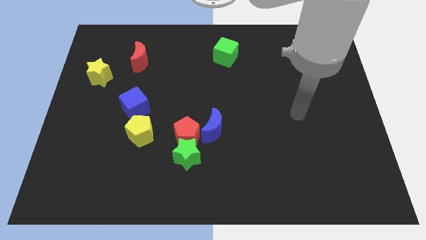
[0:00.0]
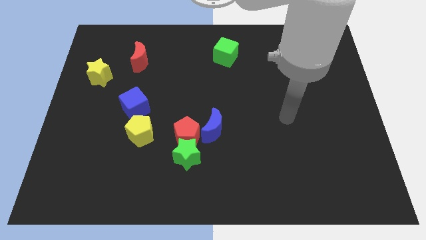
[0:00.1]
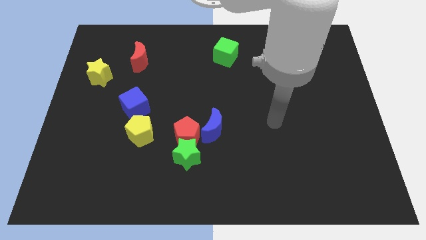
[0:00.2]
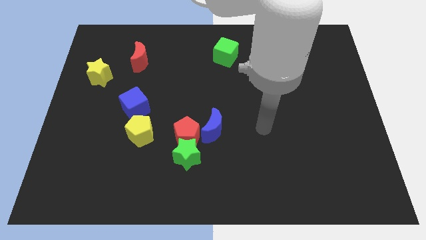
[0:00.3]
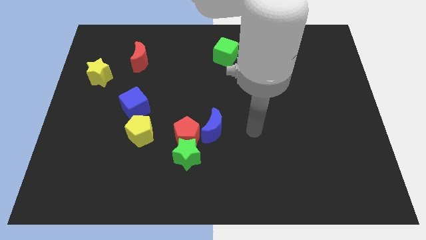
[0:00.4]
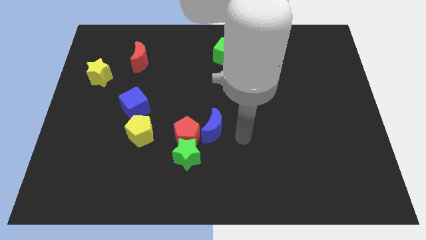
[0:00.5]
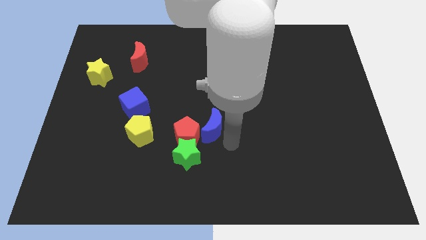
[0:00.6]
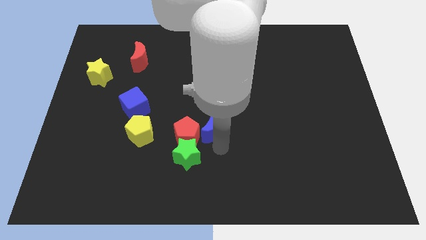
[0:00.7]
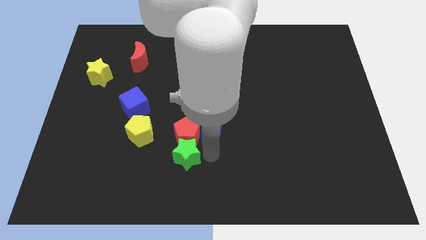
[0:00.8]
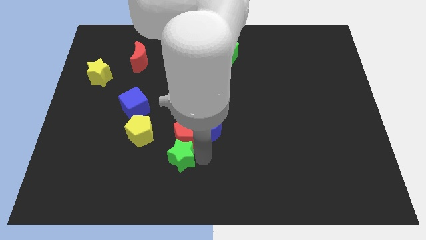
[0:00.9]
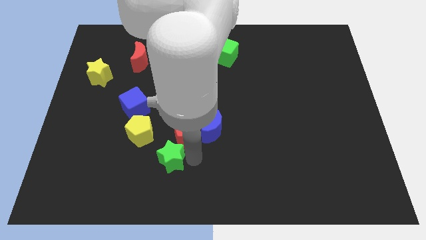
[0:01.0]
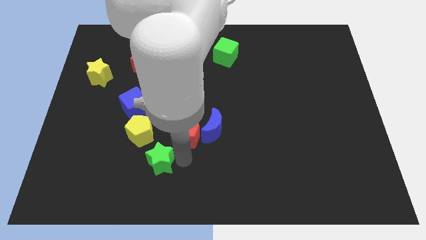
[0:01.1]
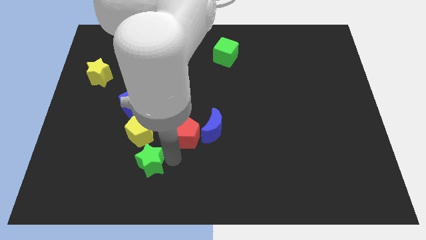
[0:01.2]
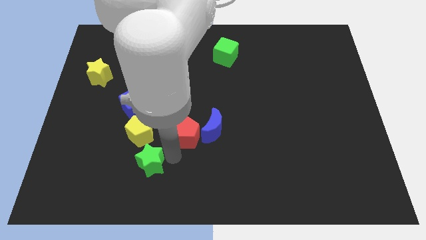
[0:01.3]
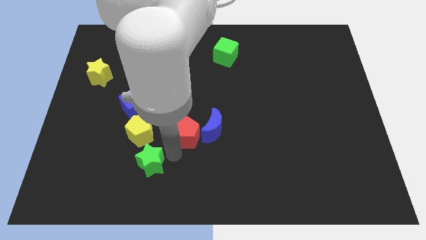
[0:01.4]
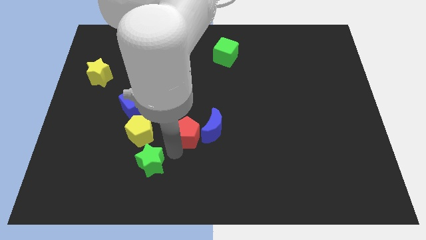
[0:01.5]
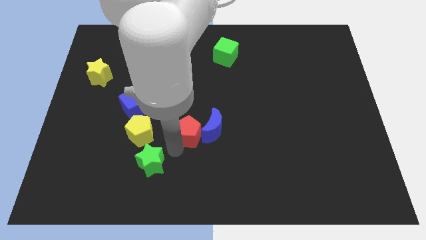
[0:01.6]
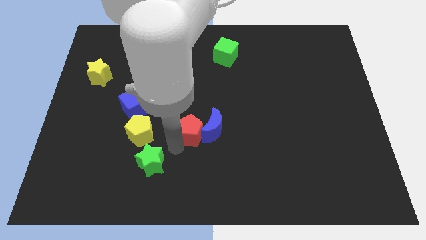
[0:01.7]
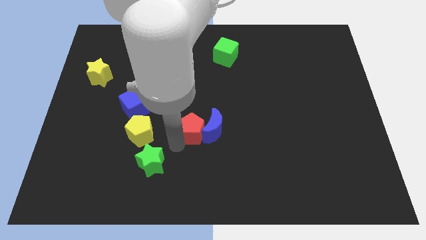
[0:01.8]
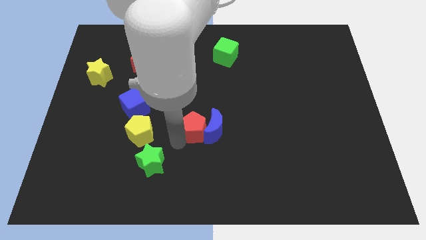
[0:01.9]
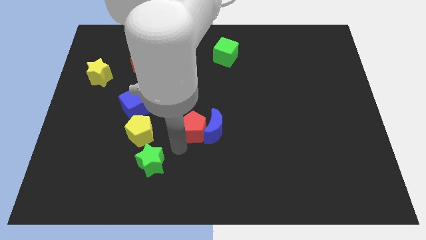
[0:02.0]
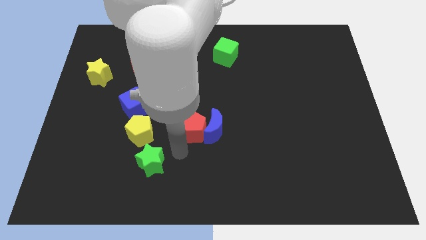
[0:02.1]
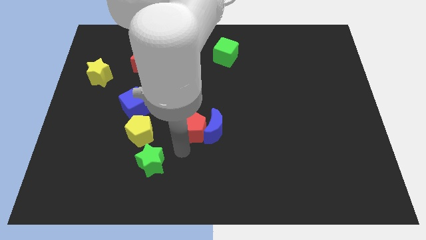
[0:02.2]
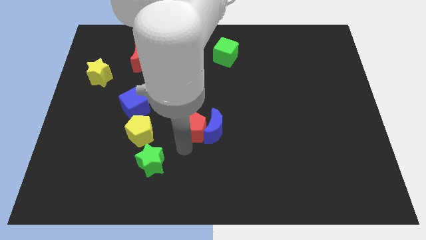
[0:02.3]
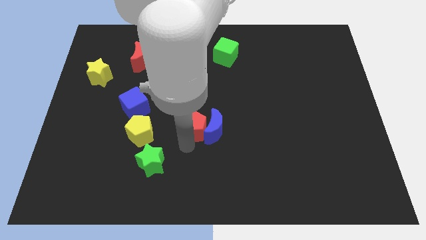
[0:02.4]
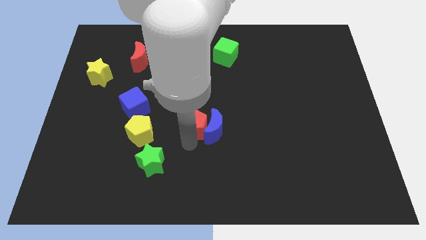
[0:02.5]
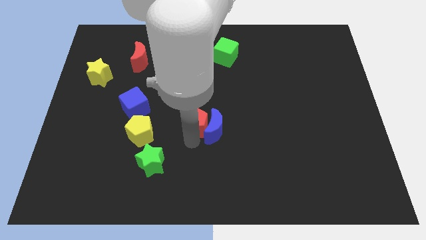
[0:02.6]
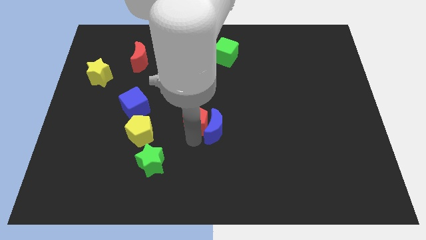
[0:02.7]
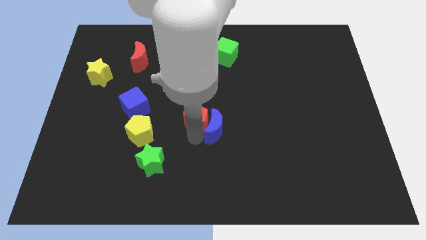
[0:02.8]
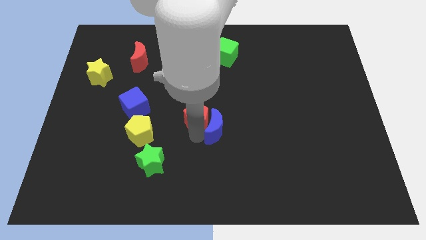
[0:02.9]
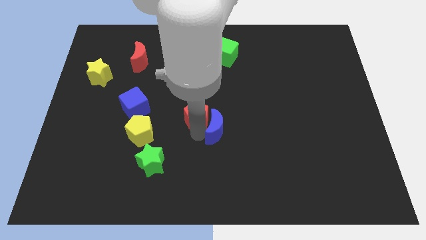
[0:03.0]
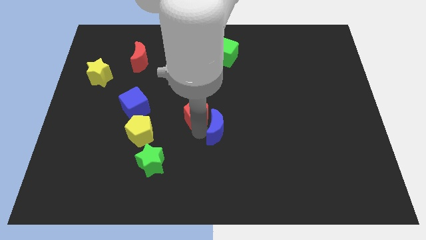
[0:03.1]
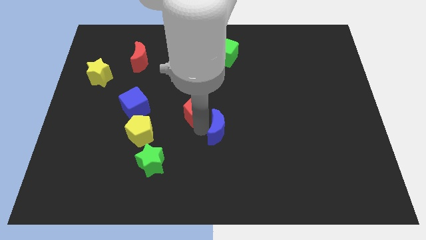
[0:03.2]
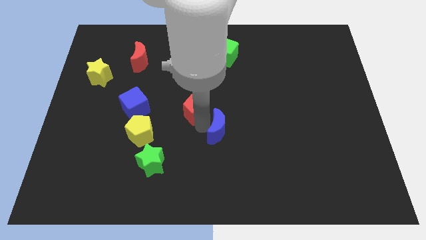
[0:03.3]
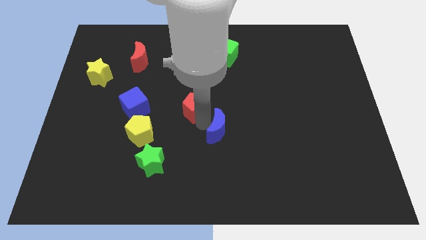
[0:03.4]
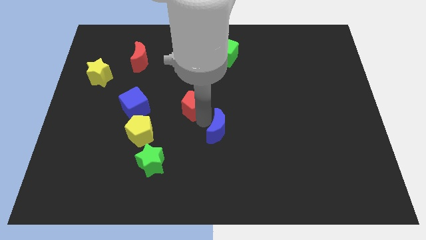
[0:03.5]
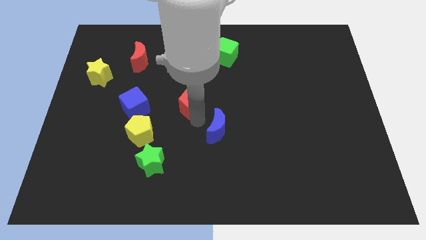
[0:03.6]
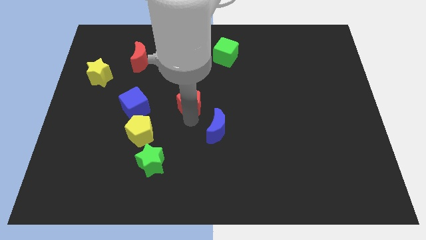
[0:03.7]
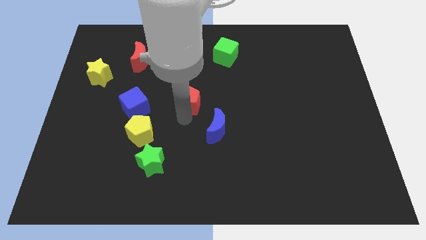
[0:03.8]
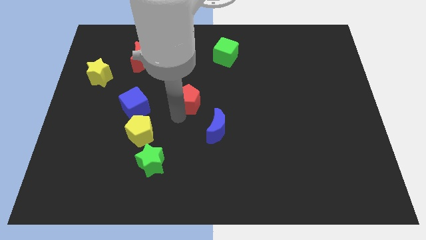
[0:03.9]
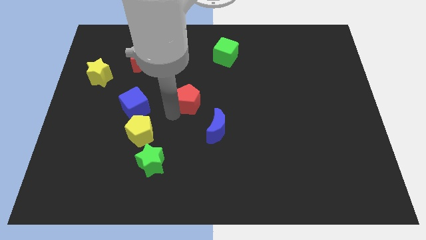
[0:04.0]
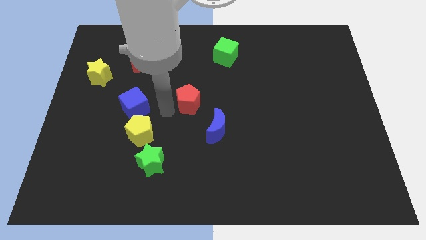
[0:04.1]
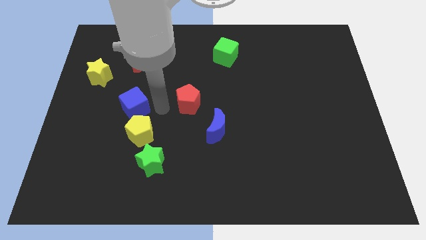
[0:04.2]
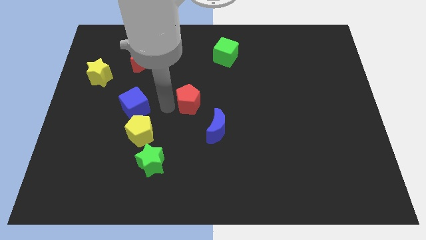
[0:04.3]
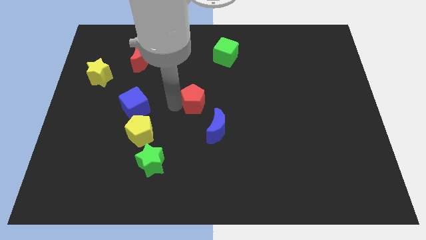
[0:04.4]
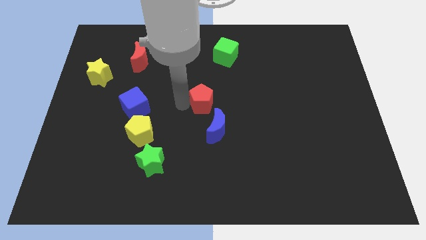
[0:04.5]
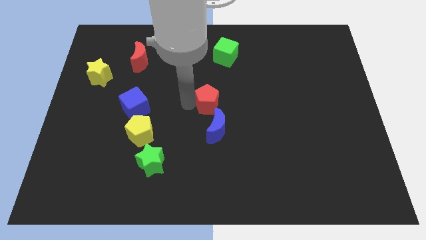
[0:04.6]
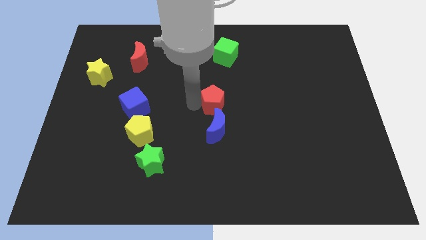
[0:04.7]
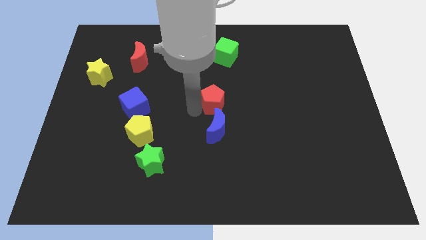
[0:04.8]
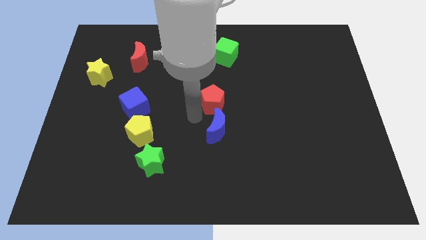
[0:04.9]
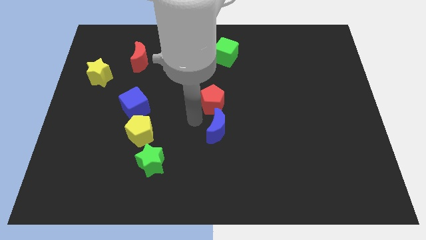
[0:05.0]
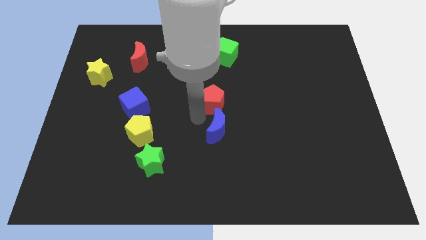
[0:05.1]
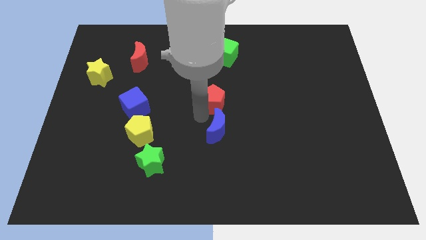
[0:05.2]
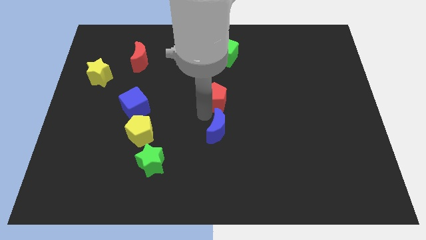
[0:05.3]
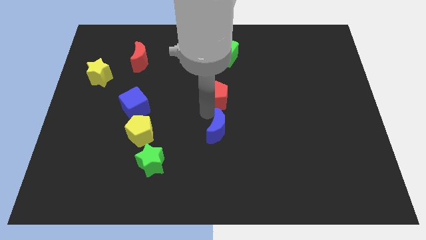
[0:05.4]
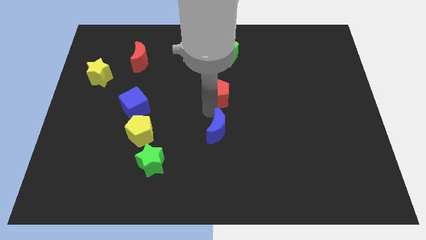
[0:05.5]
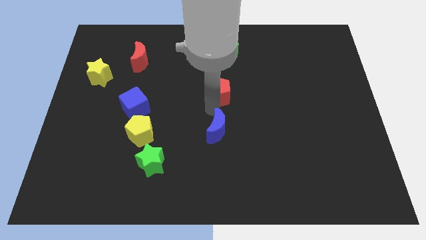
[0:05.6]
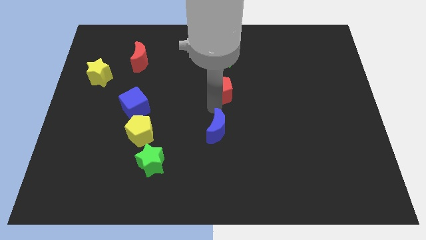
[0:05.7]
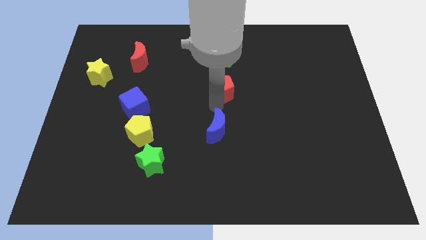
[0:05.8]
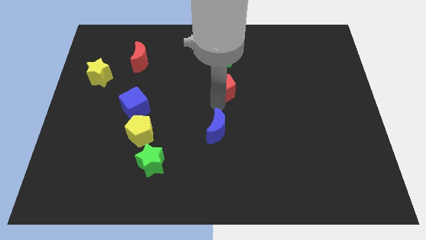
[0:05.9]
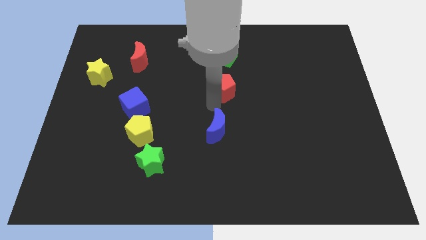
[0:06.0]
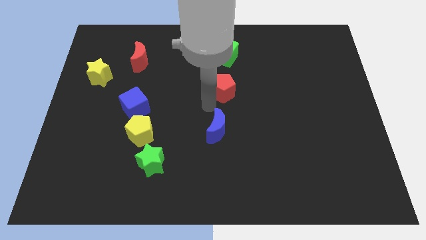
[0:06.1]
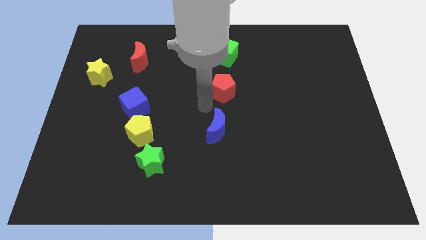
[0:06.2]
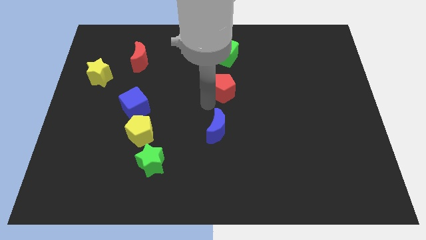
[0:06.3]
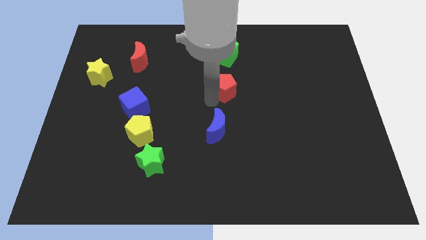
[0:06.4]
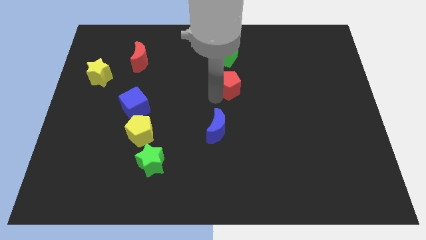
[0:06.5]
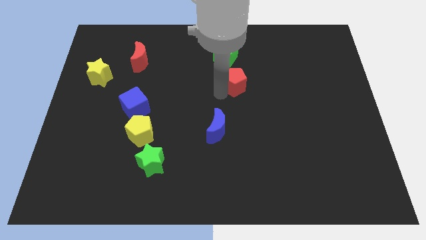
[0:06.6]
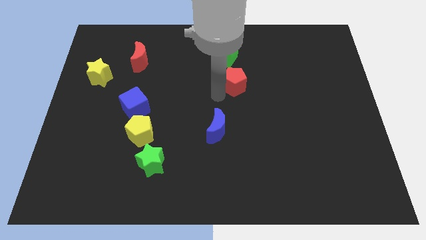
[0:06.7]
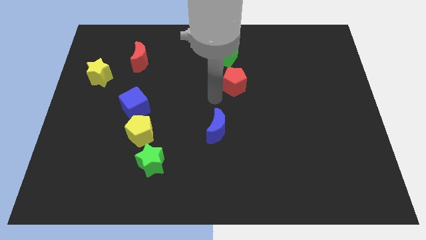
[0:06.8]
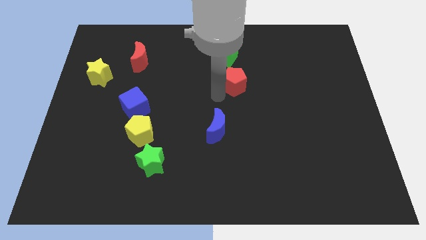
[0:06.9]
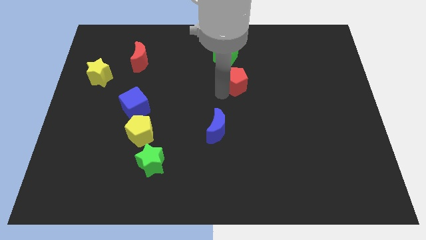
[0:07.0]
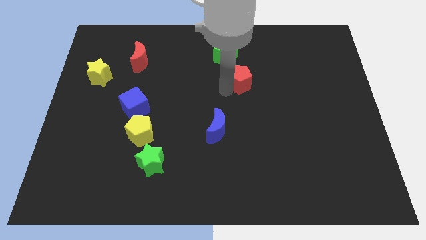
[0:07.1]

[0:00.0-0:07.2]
move the red pentagon up and then to the right

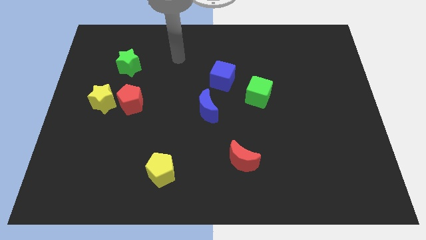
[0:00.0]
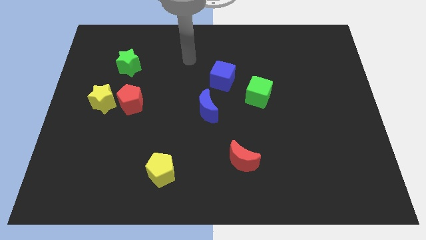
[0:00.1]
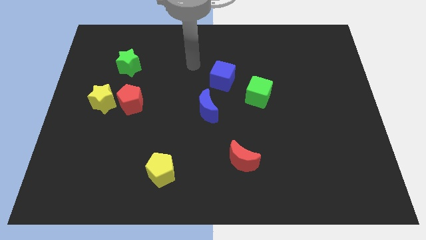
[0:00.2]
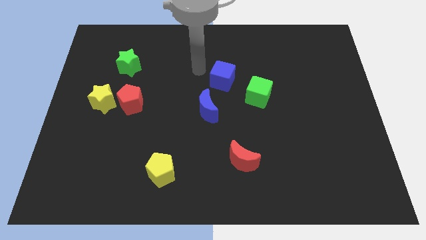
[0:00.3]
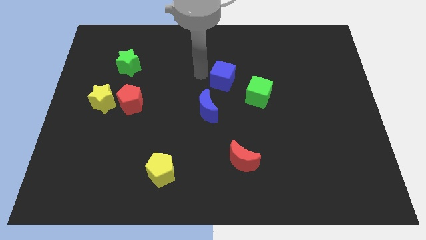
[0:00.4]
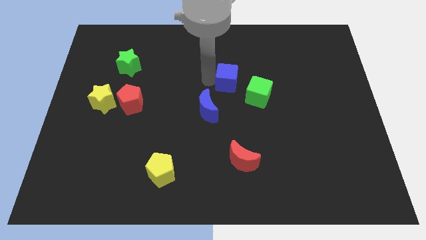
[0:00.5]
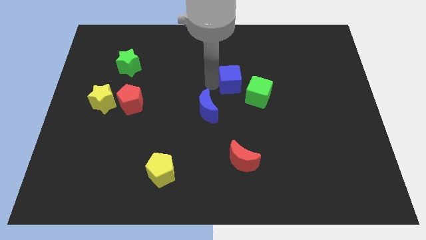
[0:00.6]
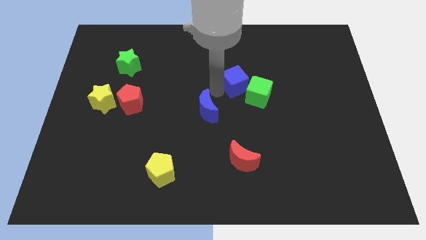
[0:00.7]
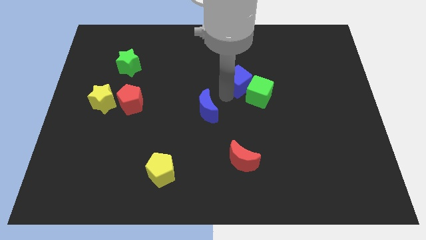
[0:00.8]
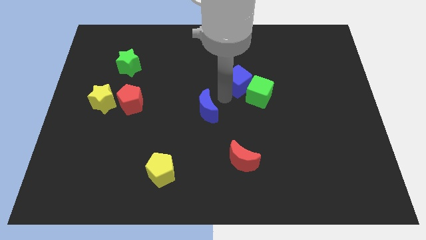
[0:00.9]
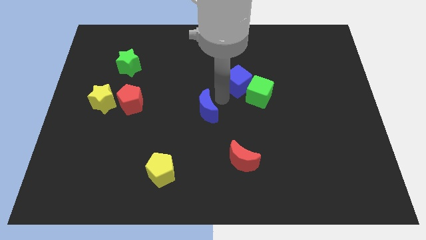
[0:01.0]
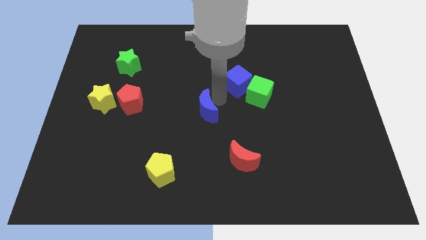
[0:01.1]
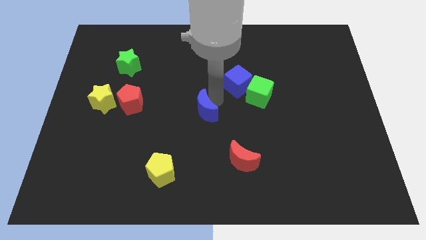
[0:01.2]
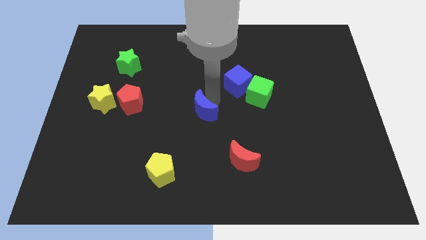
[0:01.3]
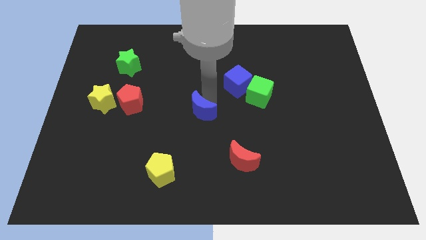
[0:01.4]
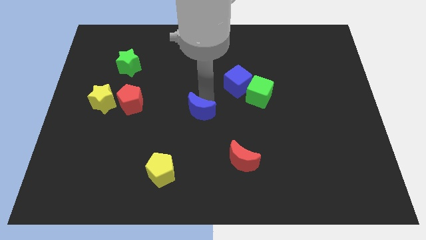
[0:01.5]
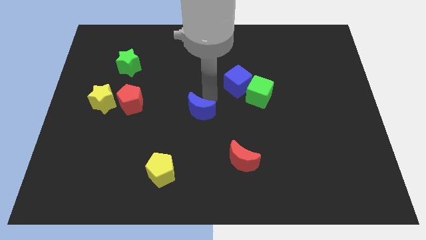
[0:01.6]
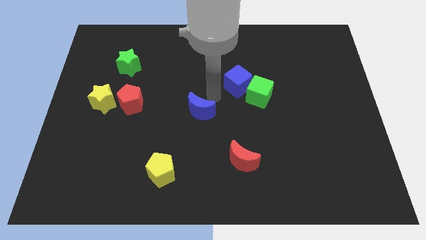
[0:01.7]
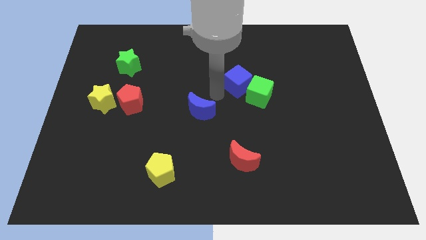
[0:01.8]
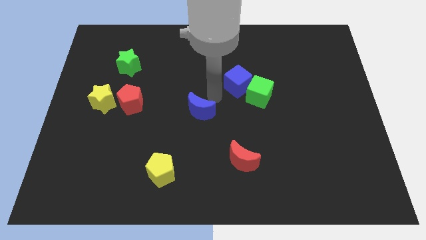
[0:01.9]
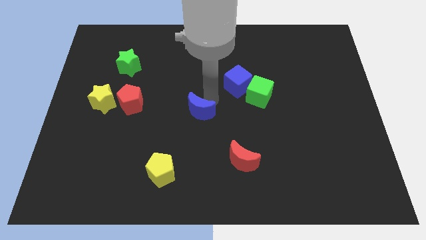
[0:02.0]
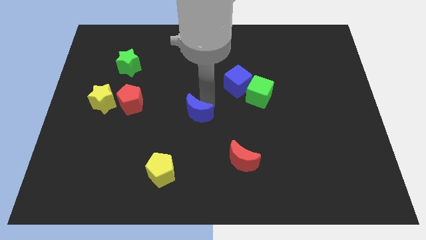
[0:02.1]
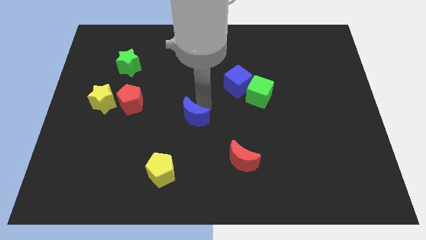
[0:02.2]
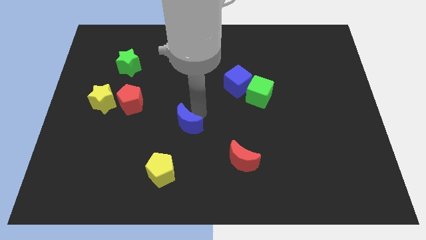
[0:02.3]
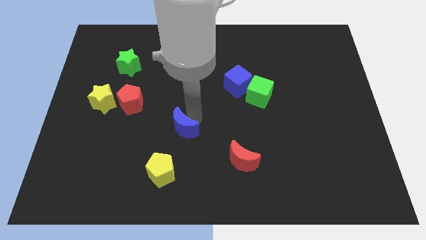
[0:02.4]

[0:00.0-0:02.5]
slightly push the blue moon downwards and left diagonally
